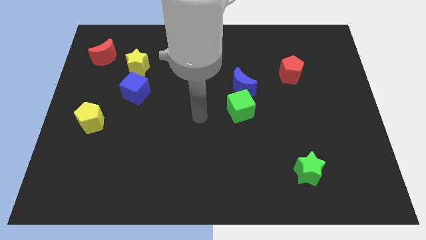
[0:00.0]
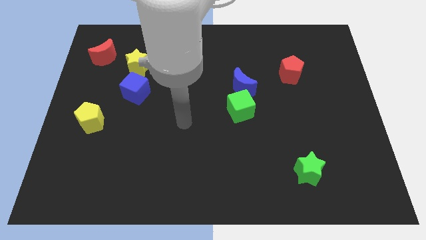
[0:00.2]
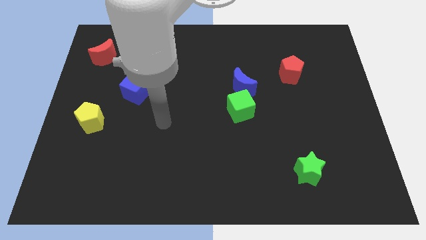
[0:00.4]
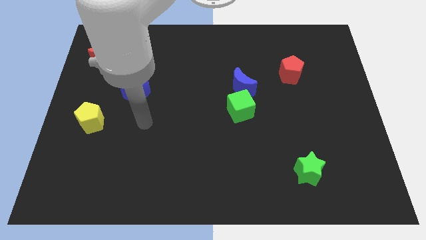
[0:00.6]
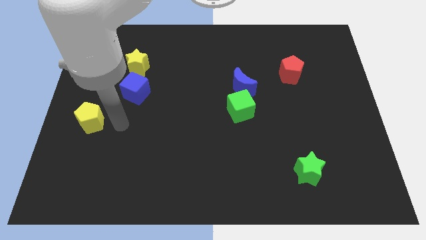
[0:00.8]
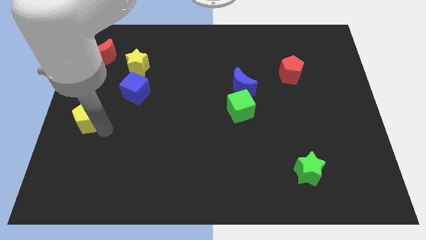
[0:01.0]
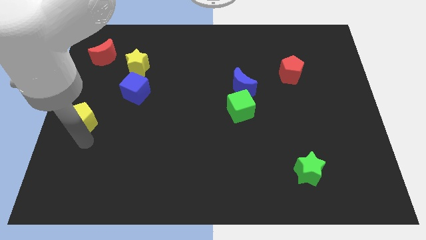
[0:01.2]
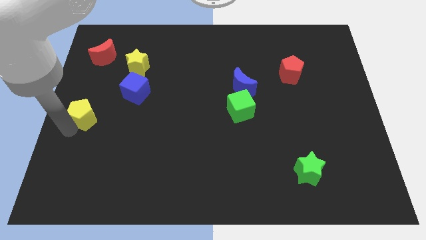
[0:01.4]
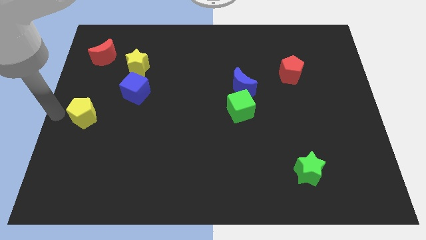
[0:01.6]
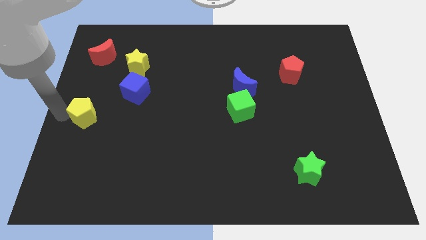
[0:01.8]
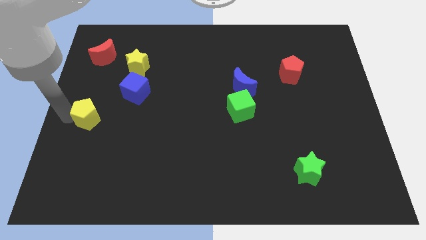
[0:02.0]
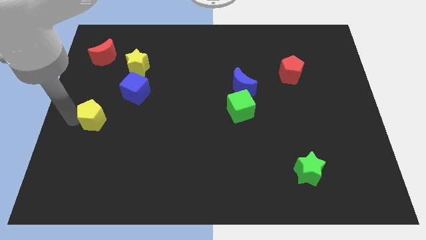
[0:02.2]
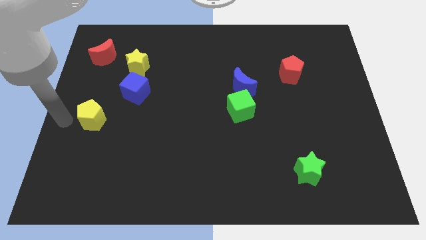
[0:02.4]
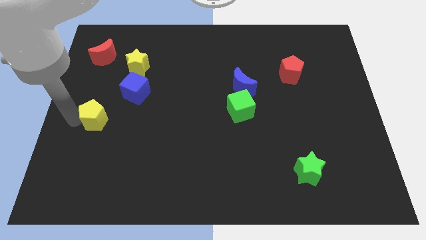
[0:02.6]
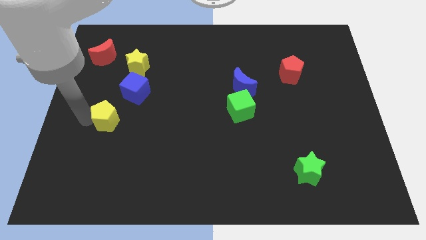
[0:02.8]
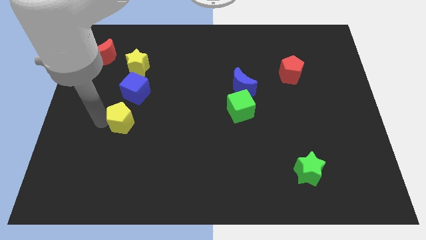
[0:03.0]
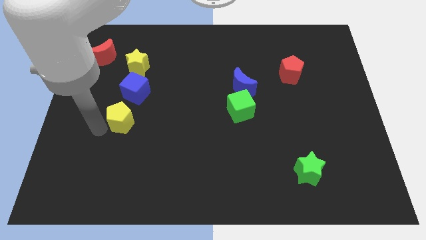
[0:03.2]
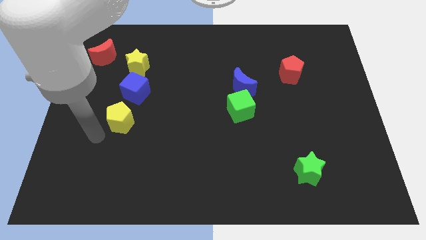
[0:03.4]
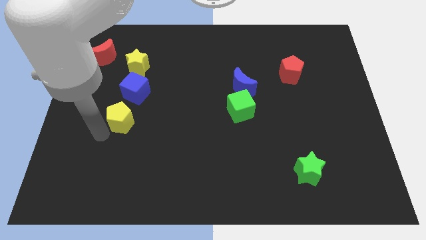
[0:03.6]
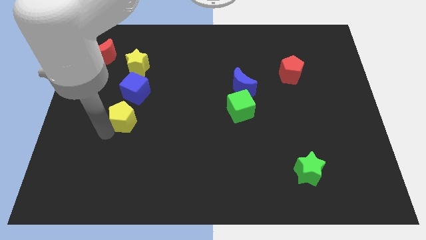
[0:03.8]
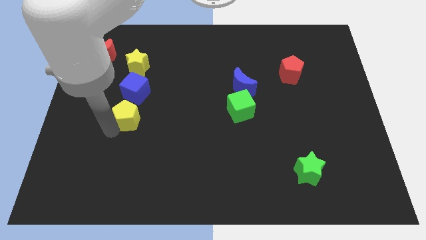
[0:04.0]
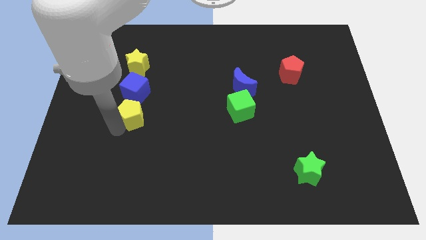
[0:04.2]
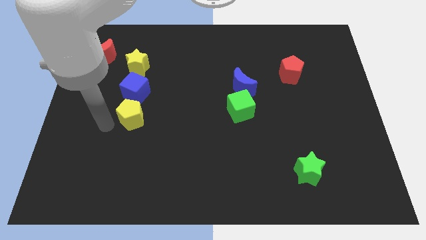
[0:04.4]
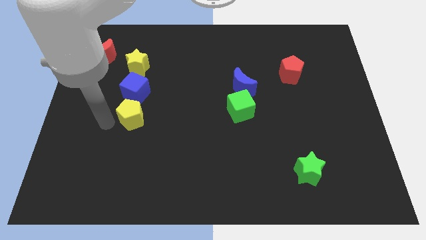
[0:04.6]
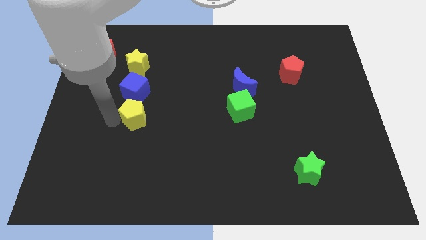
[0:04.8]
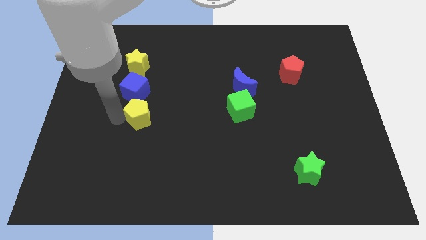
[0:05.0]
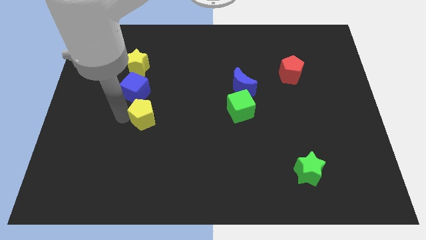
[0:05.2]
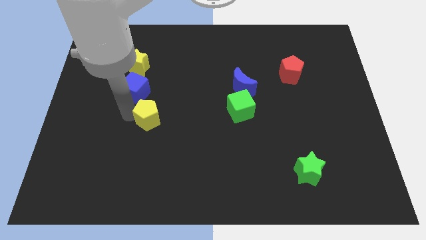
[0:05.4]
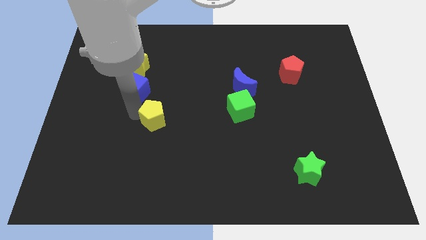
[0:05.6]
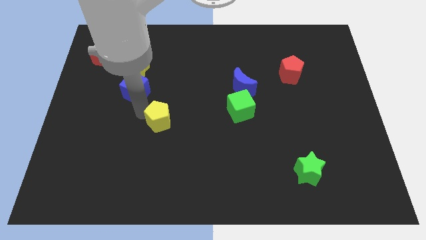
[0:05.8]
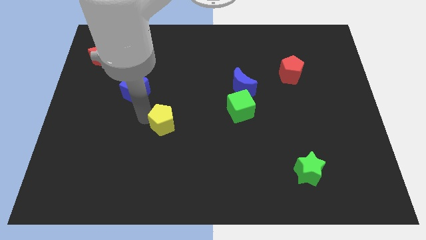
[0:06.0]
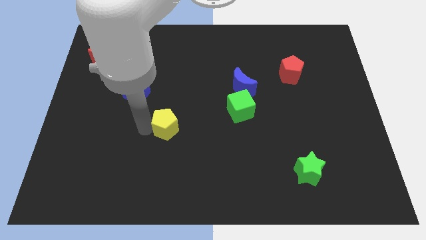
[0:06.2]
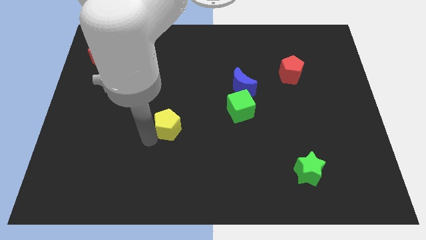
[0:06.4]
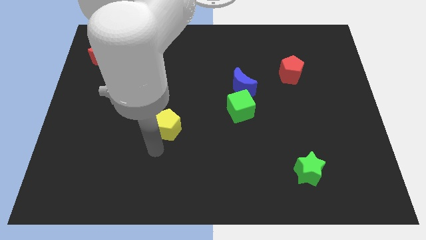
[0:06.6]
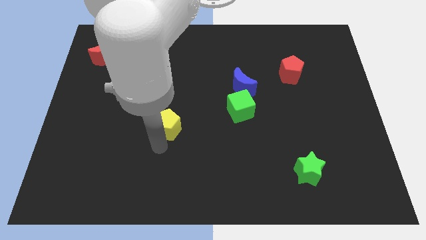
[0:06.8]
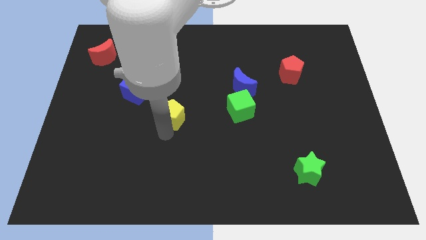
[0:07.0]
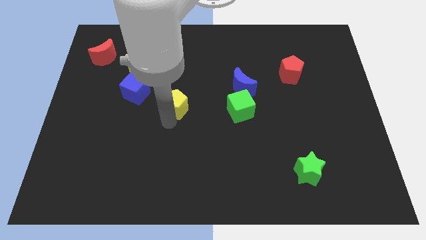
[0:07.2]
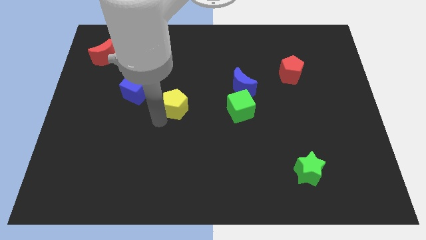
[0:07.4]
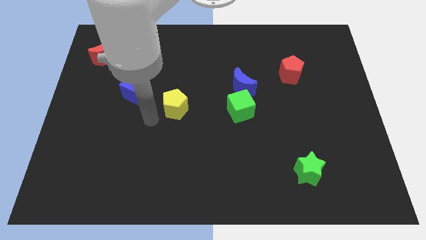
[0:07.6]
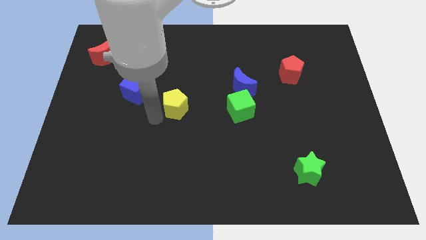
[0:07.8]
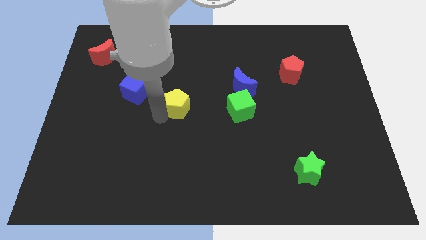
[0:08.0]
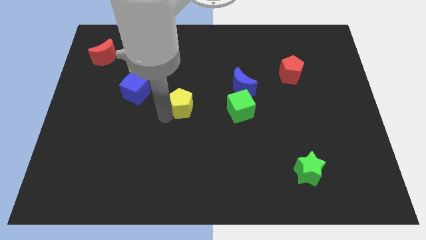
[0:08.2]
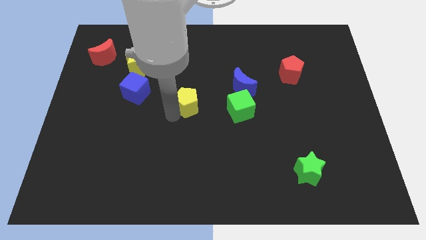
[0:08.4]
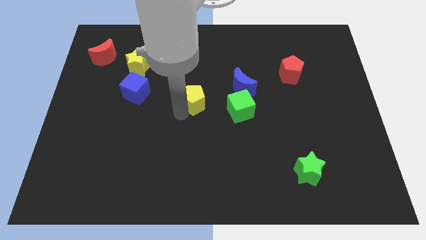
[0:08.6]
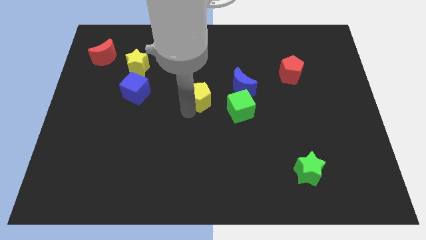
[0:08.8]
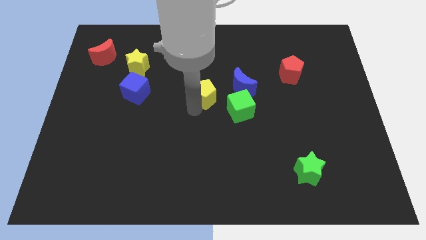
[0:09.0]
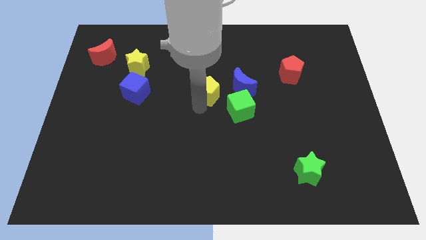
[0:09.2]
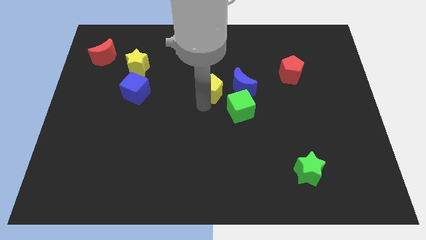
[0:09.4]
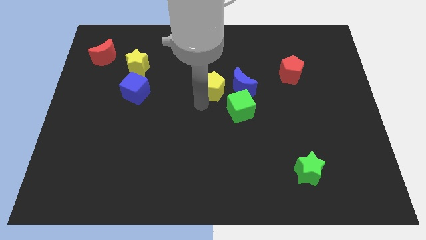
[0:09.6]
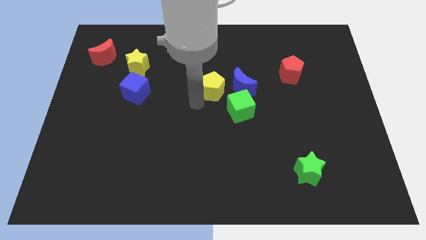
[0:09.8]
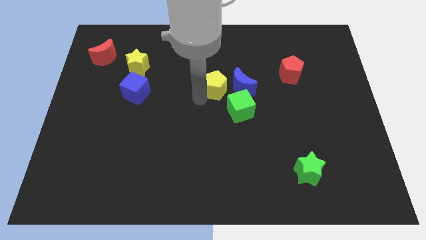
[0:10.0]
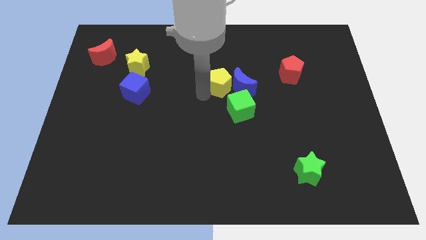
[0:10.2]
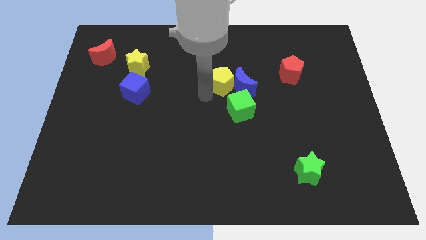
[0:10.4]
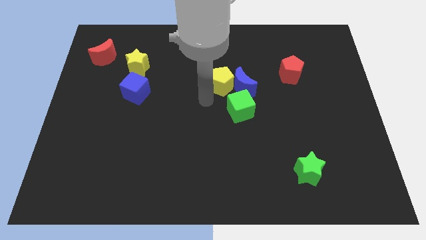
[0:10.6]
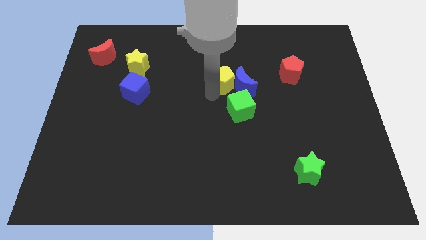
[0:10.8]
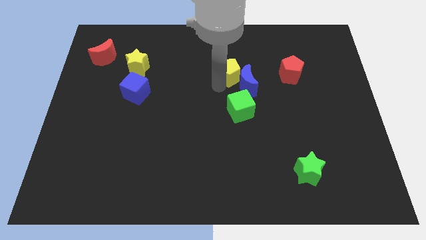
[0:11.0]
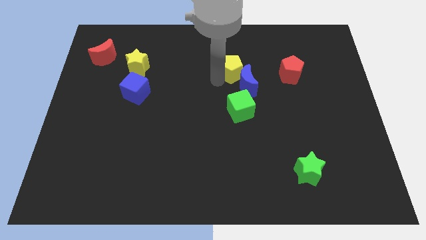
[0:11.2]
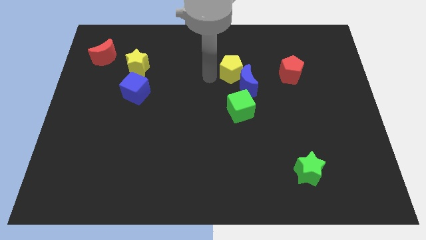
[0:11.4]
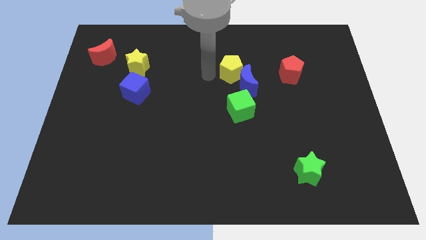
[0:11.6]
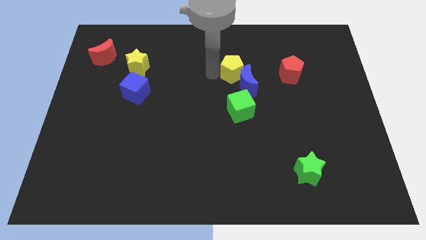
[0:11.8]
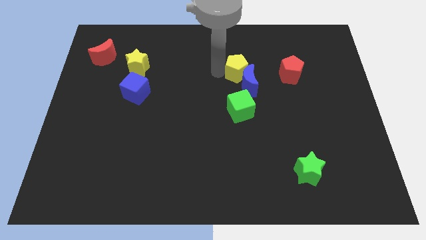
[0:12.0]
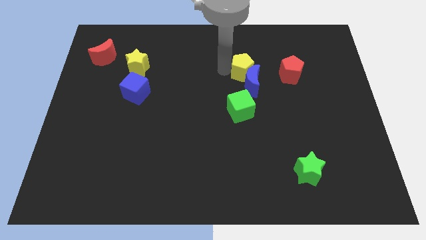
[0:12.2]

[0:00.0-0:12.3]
put the yellow pentagon diagonally up and to the right of the blue moon

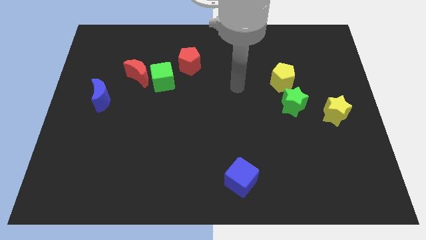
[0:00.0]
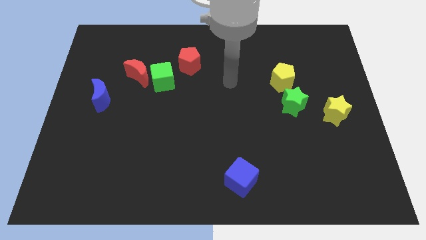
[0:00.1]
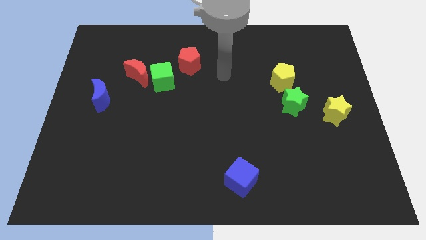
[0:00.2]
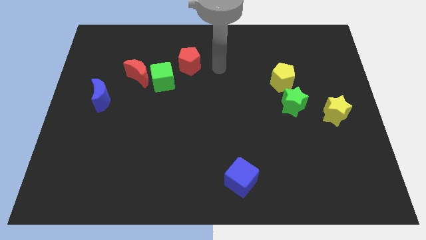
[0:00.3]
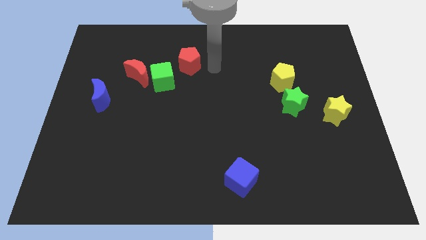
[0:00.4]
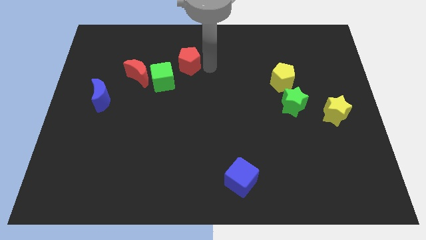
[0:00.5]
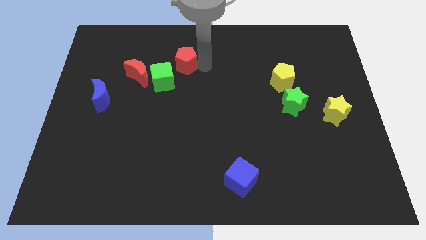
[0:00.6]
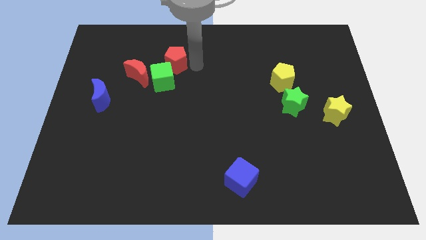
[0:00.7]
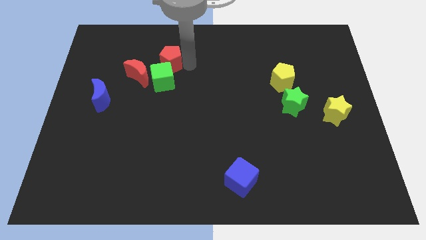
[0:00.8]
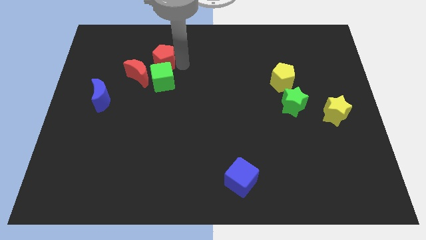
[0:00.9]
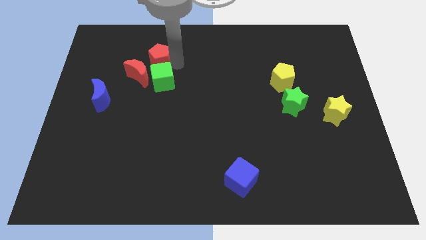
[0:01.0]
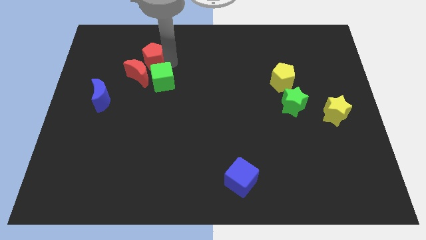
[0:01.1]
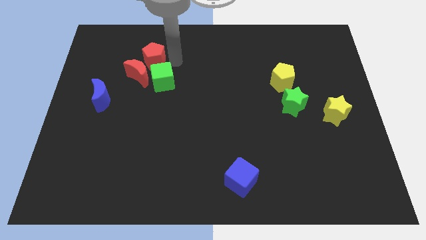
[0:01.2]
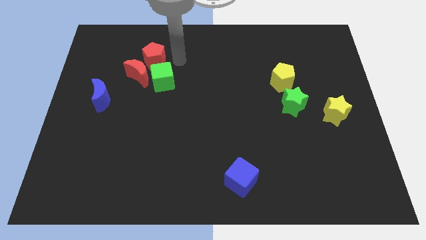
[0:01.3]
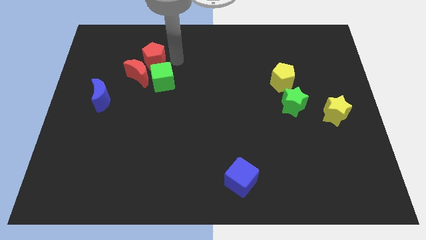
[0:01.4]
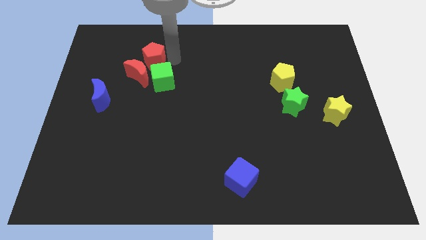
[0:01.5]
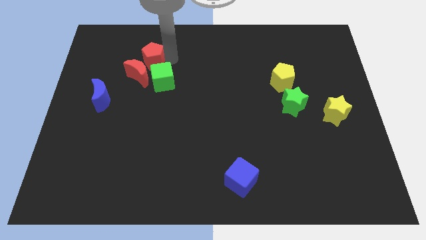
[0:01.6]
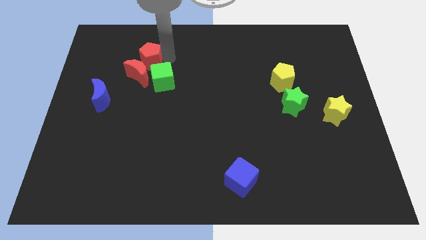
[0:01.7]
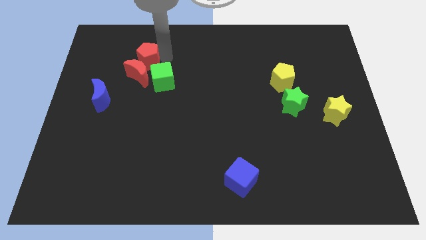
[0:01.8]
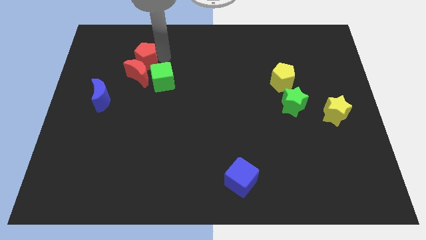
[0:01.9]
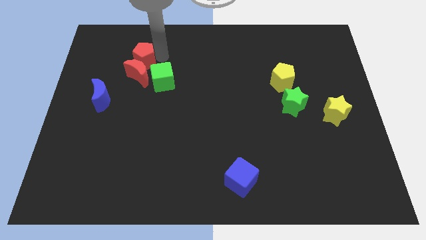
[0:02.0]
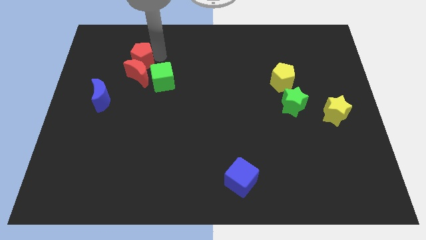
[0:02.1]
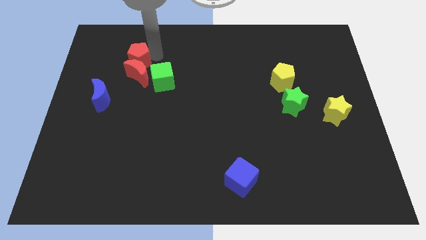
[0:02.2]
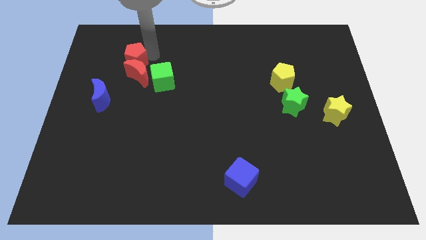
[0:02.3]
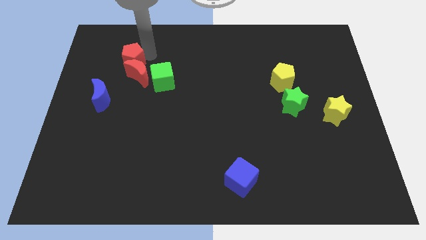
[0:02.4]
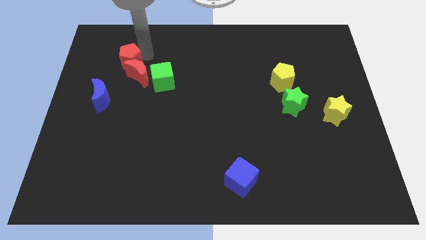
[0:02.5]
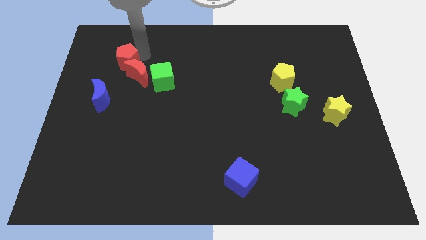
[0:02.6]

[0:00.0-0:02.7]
put the red pentagon above the blue moon
